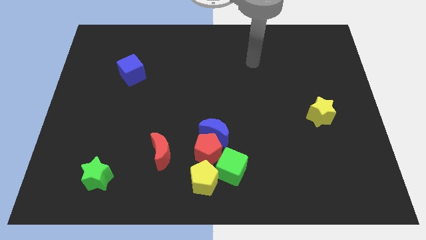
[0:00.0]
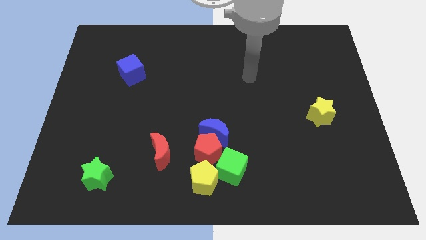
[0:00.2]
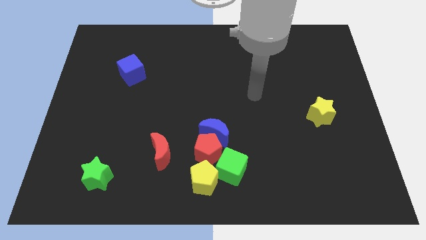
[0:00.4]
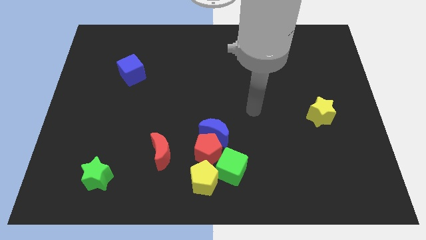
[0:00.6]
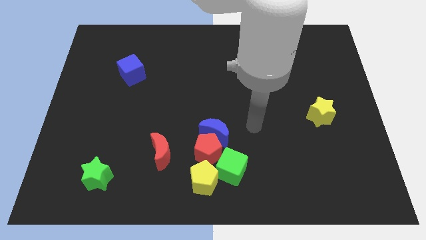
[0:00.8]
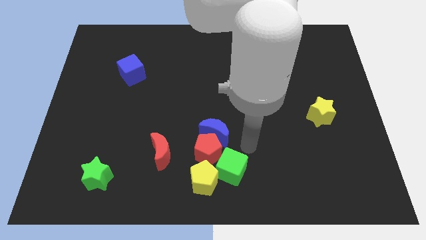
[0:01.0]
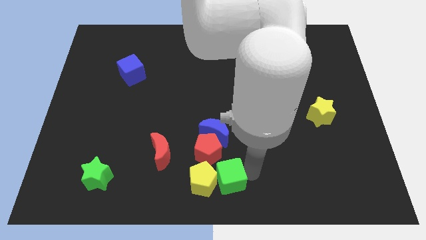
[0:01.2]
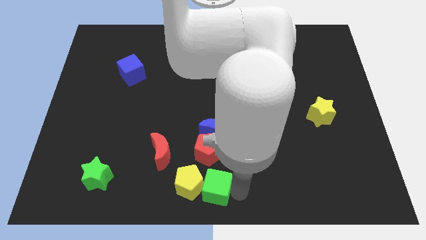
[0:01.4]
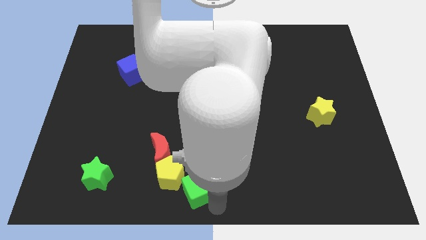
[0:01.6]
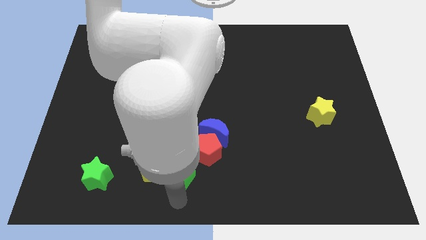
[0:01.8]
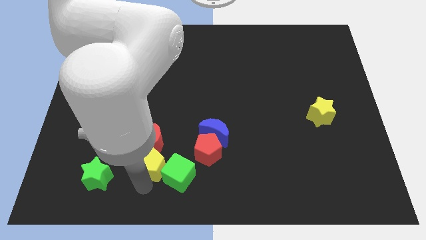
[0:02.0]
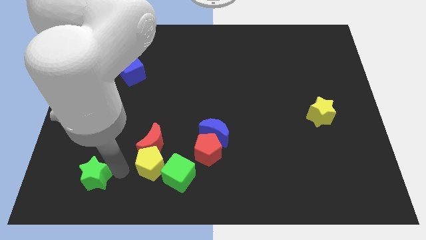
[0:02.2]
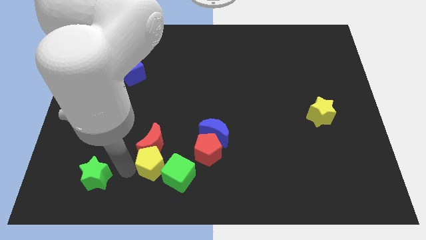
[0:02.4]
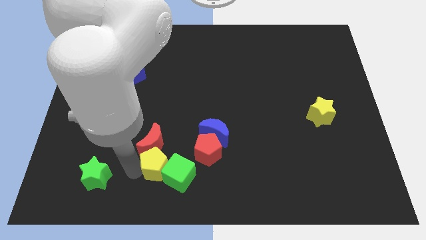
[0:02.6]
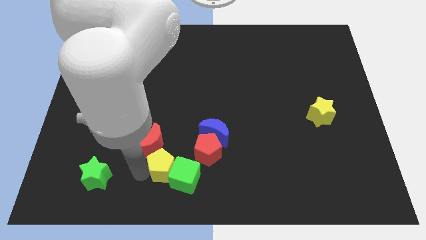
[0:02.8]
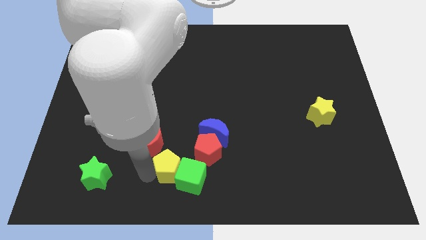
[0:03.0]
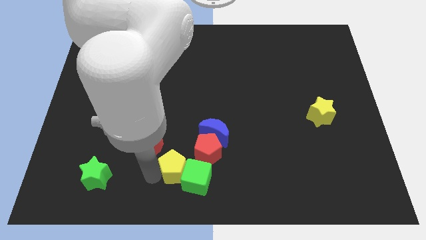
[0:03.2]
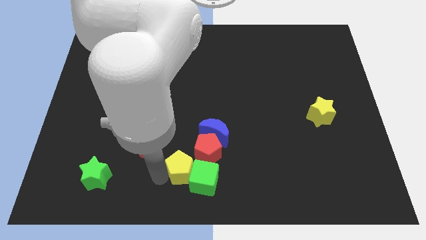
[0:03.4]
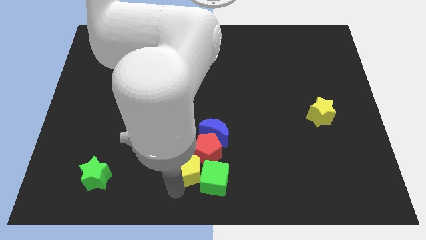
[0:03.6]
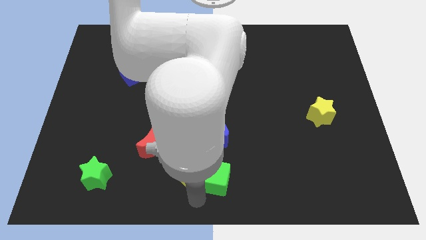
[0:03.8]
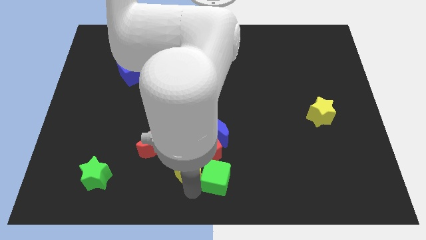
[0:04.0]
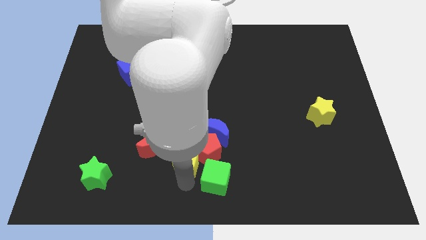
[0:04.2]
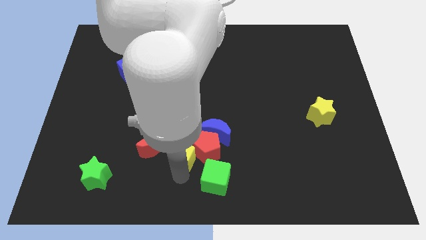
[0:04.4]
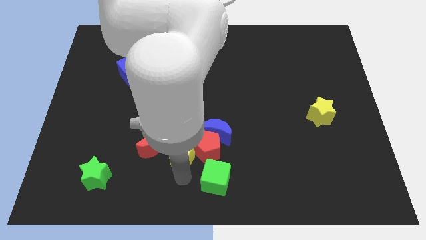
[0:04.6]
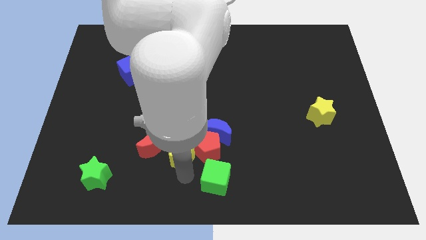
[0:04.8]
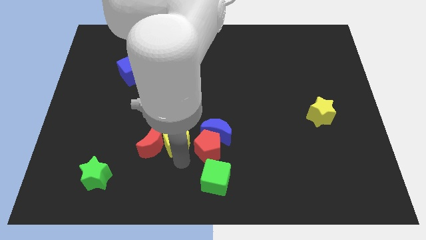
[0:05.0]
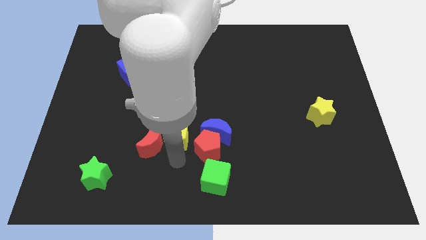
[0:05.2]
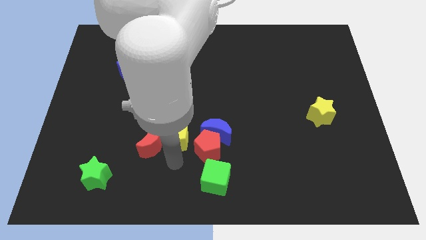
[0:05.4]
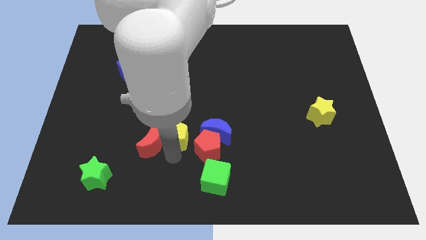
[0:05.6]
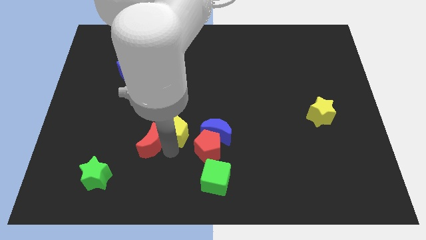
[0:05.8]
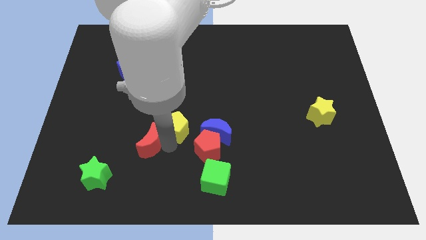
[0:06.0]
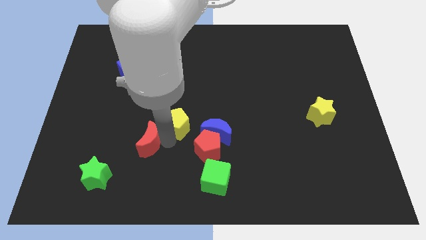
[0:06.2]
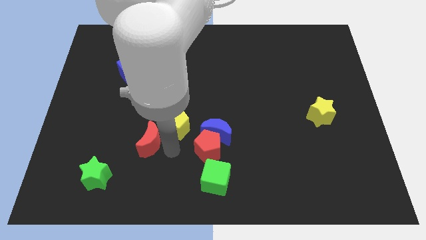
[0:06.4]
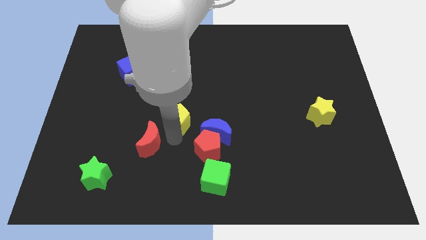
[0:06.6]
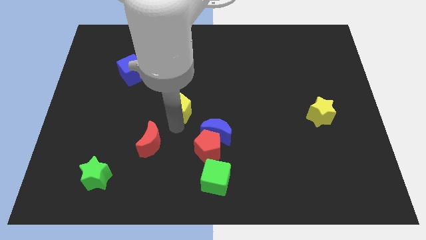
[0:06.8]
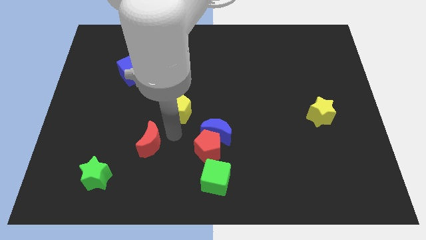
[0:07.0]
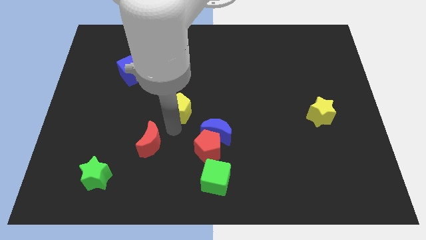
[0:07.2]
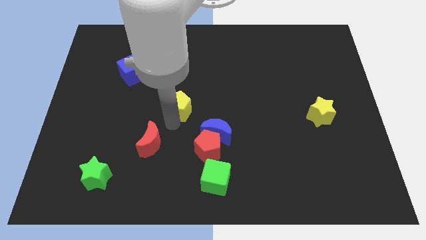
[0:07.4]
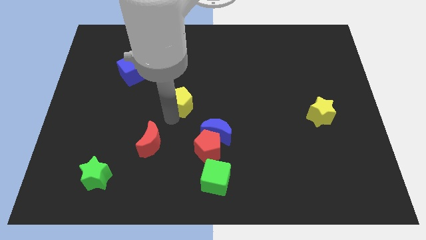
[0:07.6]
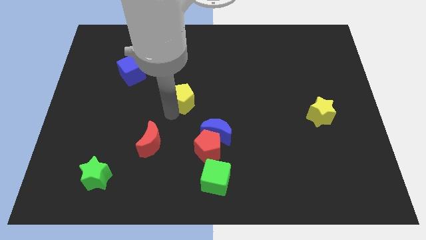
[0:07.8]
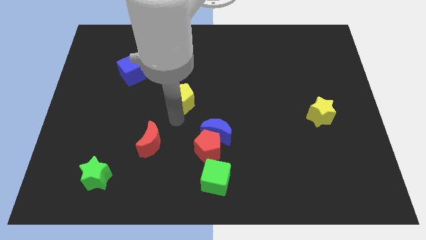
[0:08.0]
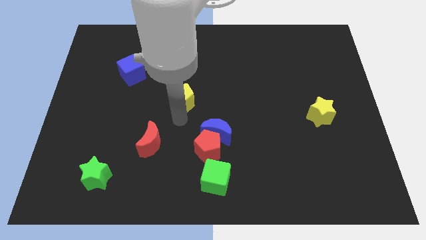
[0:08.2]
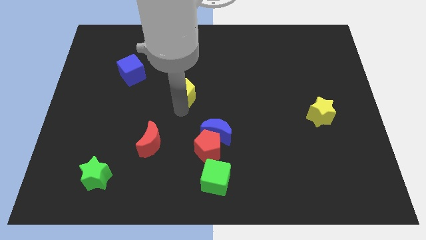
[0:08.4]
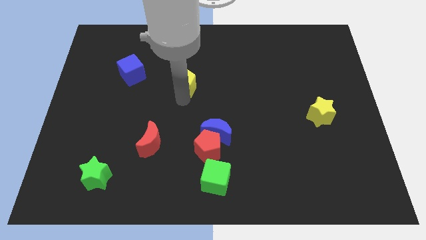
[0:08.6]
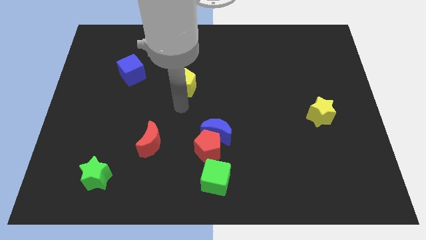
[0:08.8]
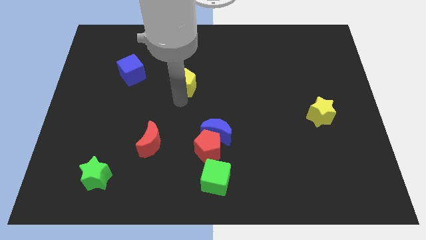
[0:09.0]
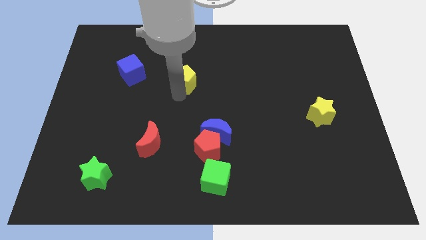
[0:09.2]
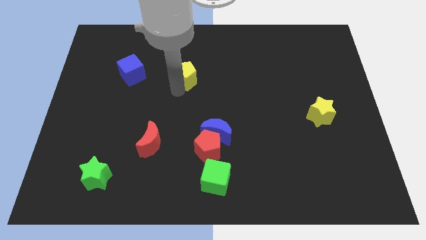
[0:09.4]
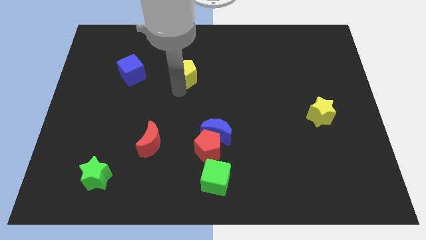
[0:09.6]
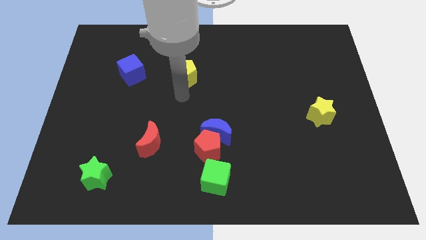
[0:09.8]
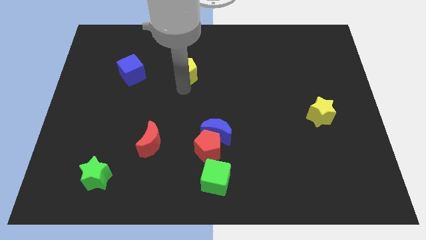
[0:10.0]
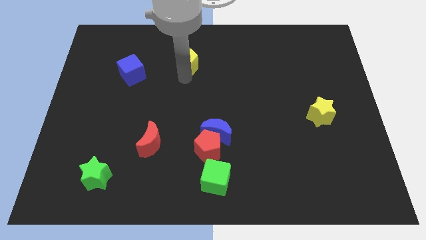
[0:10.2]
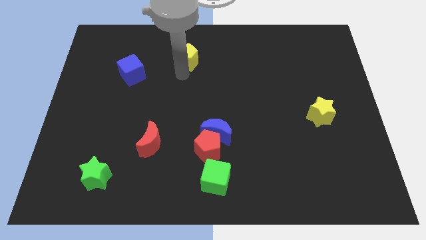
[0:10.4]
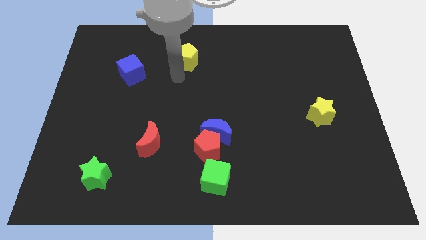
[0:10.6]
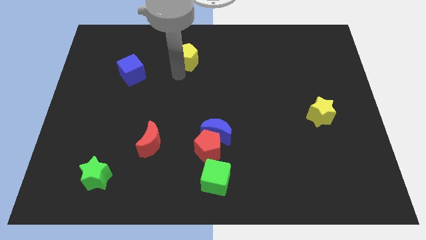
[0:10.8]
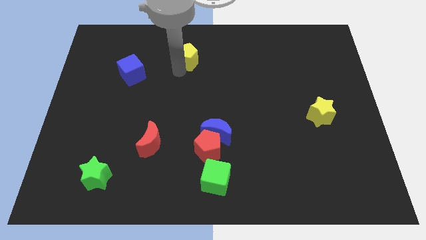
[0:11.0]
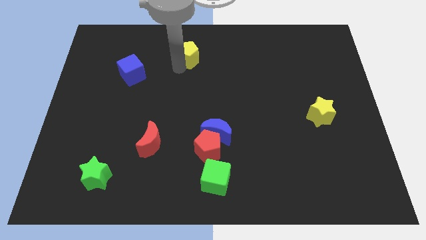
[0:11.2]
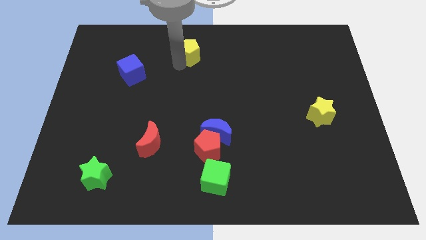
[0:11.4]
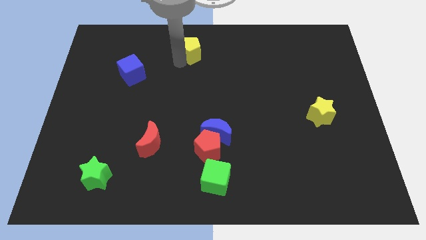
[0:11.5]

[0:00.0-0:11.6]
push the yellow pentagon to the top side

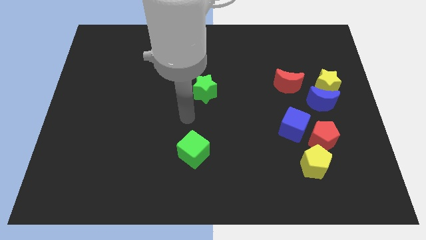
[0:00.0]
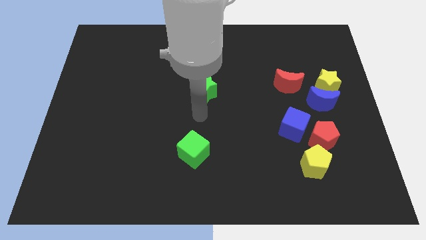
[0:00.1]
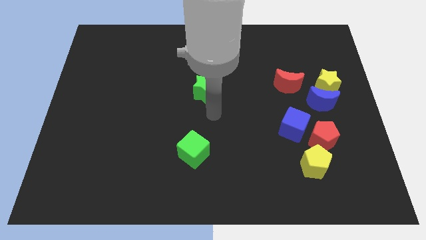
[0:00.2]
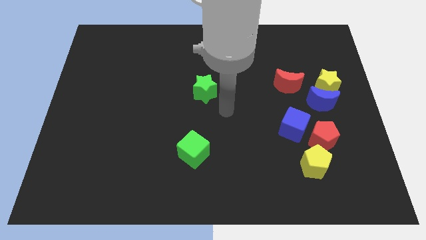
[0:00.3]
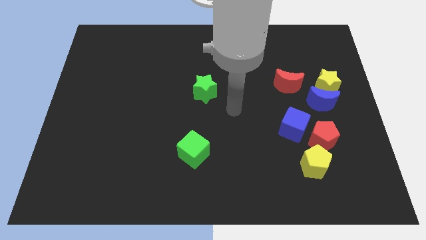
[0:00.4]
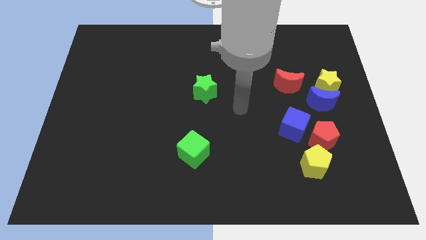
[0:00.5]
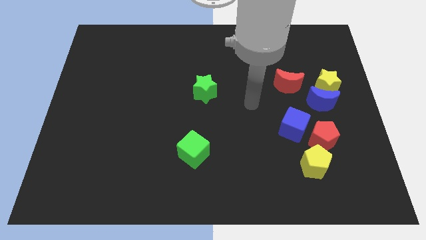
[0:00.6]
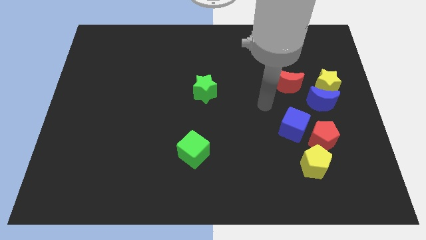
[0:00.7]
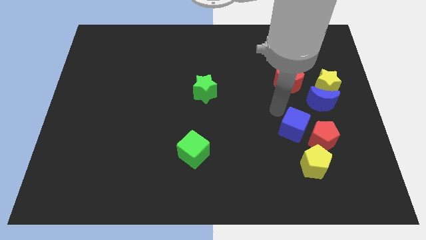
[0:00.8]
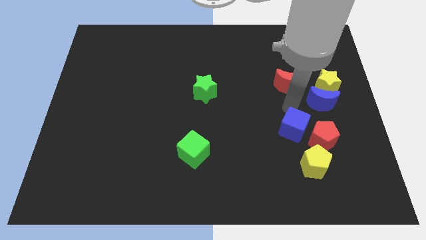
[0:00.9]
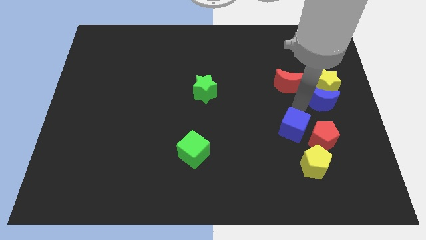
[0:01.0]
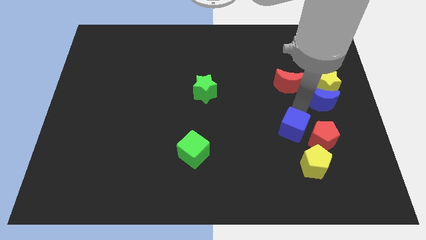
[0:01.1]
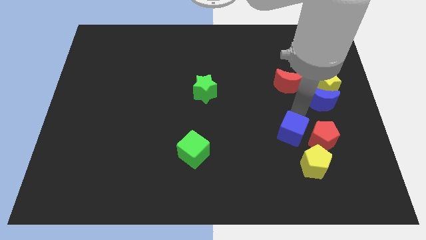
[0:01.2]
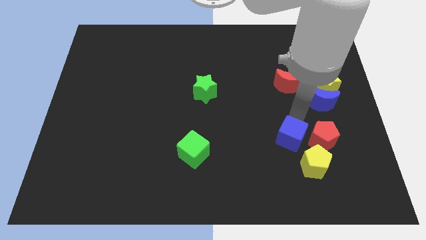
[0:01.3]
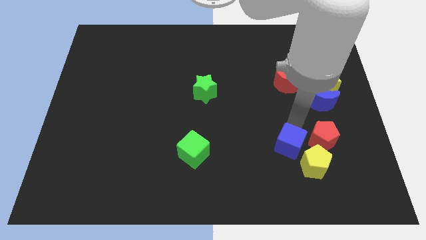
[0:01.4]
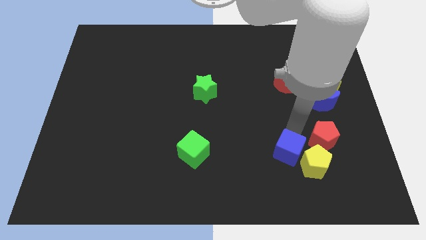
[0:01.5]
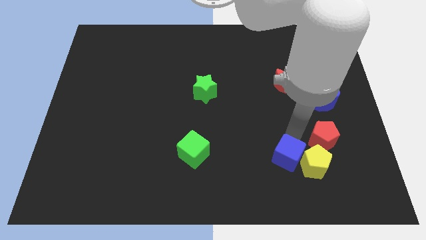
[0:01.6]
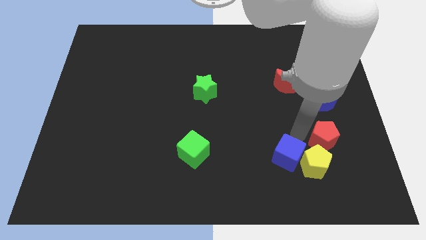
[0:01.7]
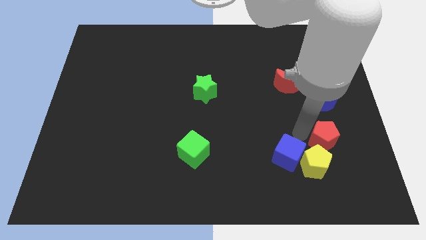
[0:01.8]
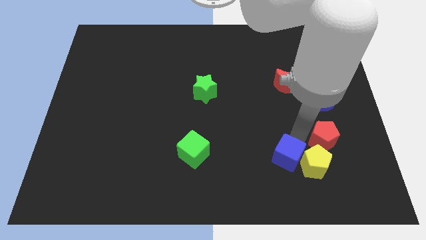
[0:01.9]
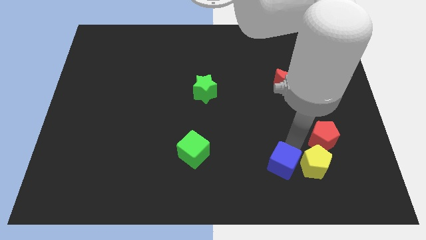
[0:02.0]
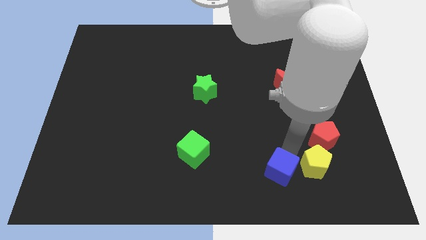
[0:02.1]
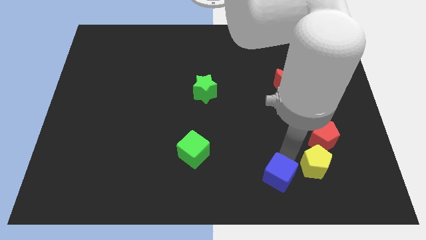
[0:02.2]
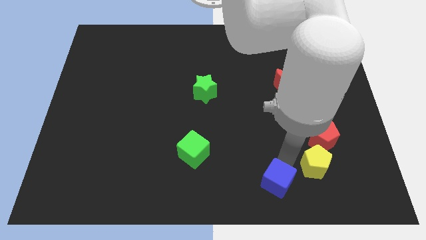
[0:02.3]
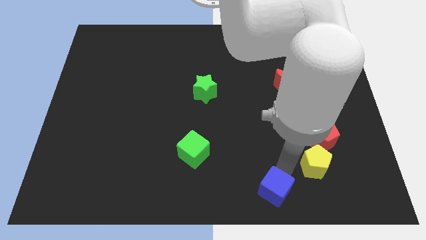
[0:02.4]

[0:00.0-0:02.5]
slide the blue cube to the bottom
